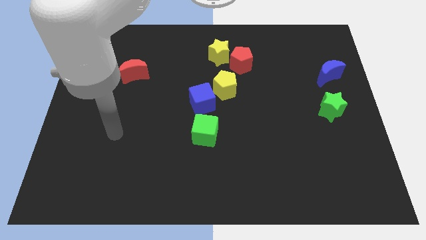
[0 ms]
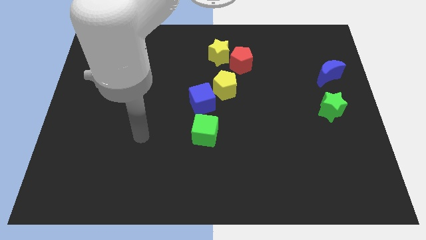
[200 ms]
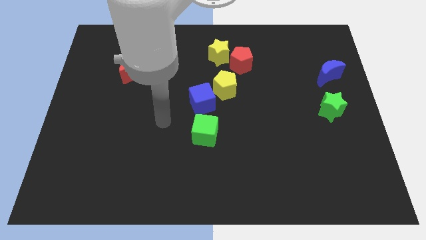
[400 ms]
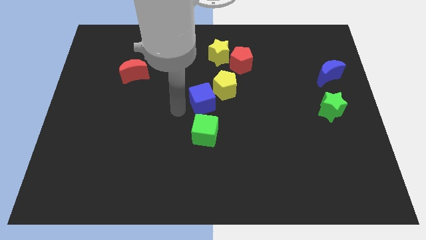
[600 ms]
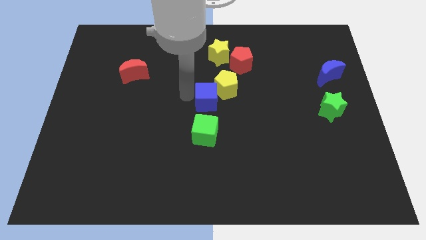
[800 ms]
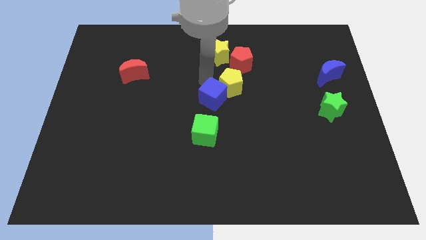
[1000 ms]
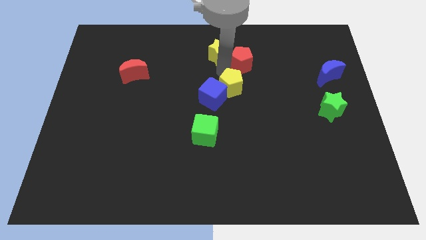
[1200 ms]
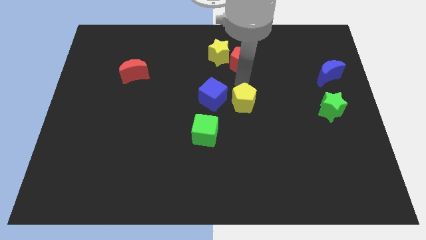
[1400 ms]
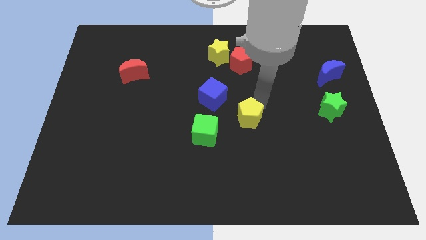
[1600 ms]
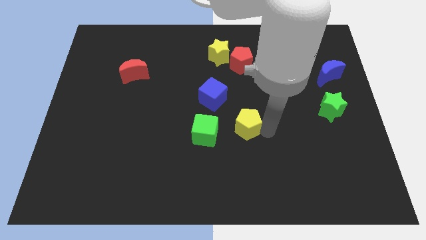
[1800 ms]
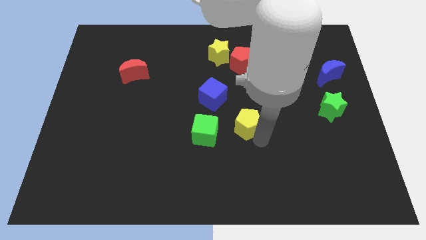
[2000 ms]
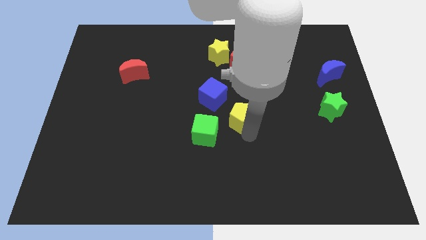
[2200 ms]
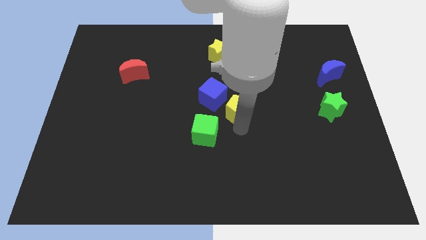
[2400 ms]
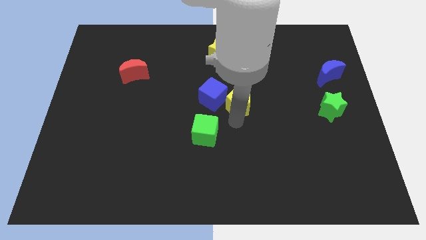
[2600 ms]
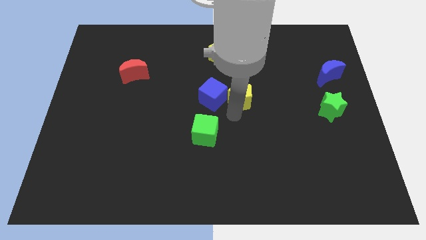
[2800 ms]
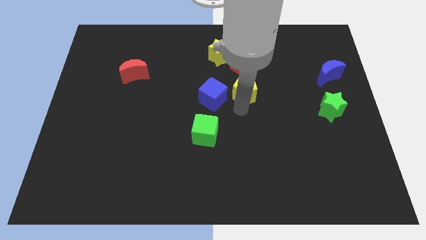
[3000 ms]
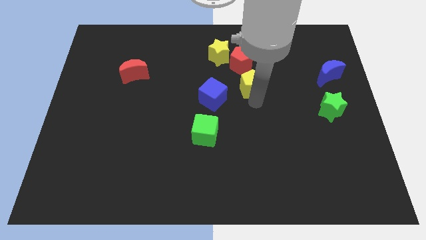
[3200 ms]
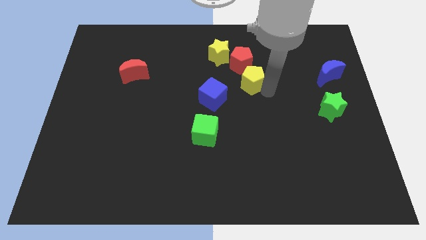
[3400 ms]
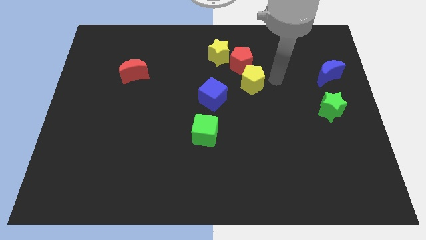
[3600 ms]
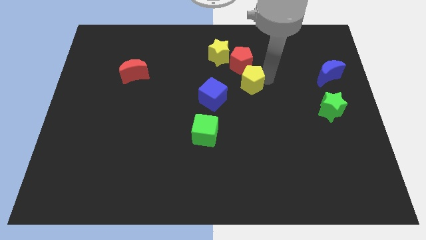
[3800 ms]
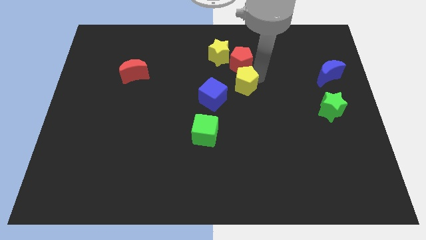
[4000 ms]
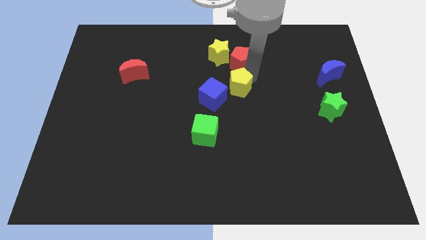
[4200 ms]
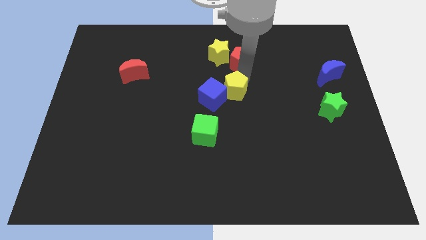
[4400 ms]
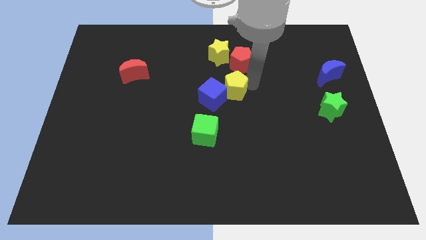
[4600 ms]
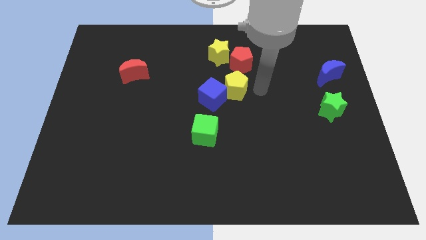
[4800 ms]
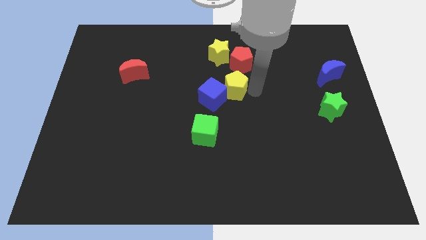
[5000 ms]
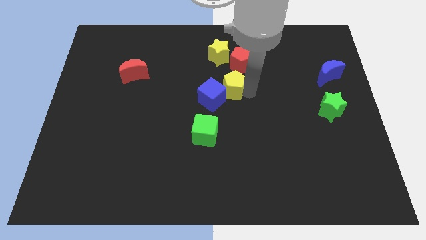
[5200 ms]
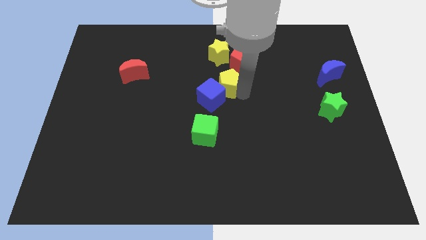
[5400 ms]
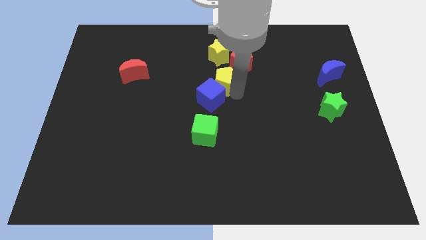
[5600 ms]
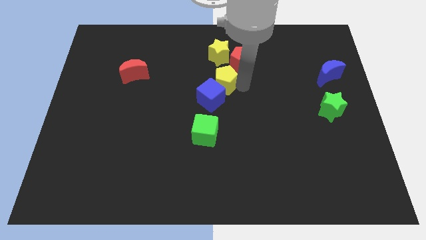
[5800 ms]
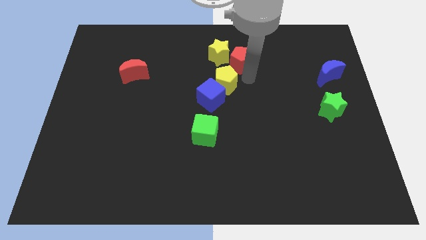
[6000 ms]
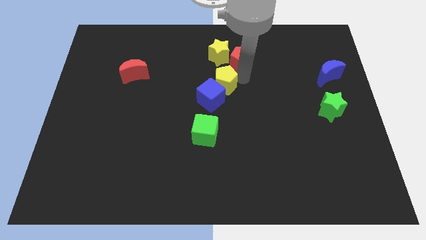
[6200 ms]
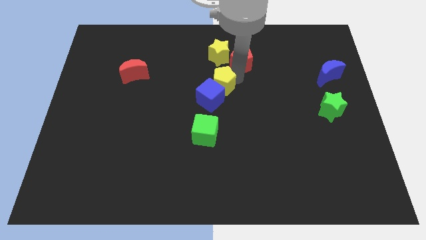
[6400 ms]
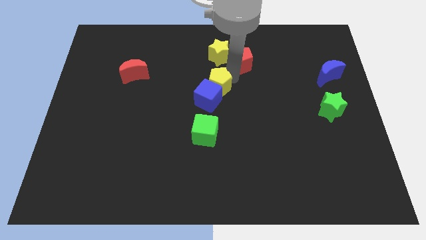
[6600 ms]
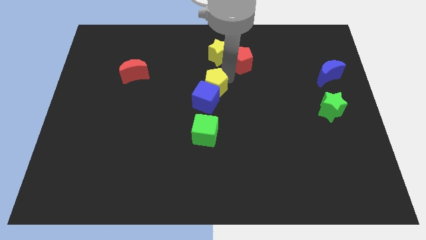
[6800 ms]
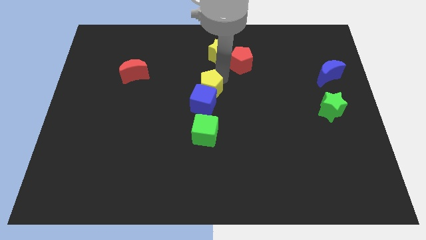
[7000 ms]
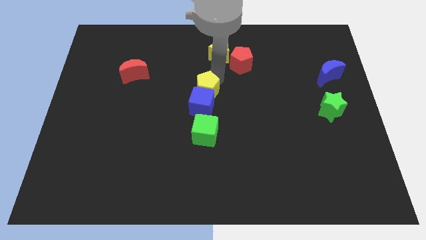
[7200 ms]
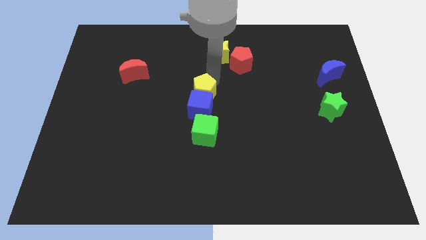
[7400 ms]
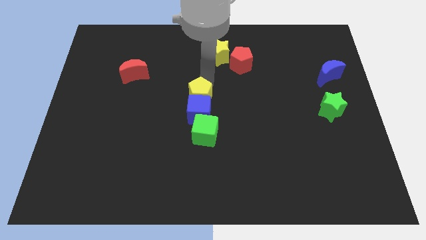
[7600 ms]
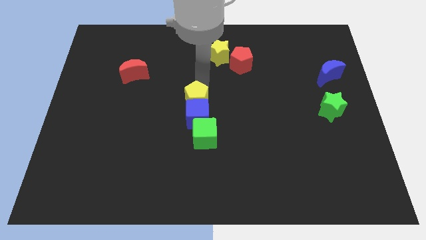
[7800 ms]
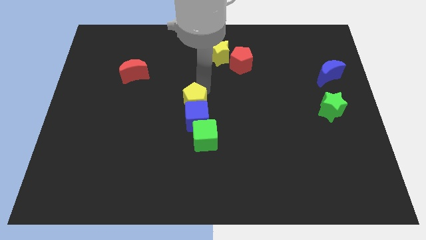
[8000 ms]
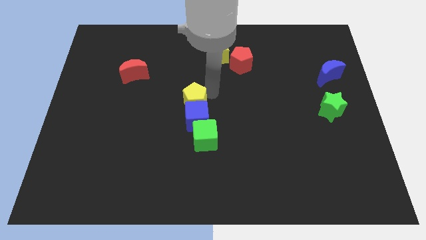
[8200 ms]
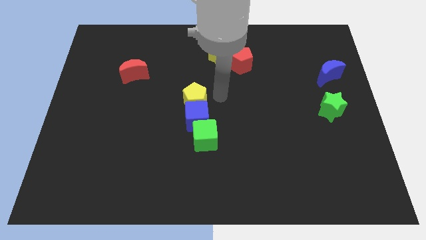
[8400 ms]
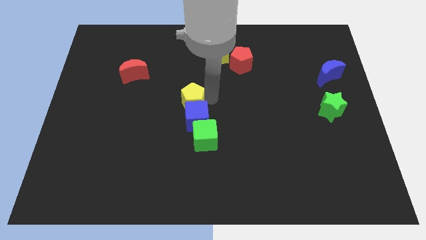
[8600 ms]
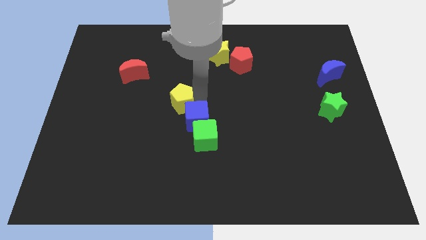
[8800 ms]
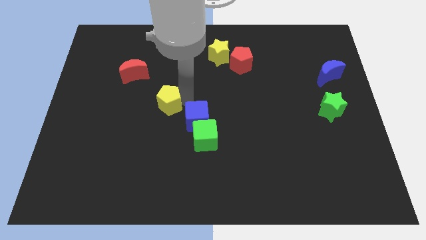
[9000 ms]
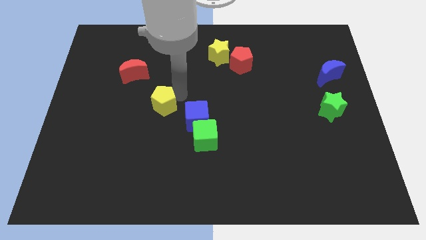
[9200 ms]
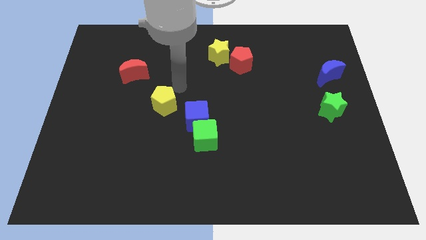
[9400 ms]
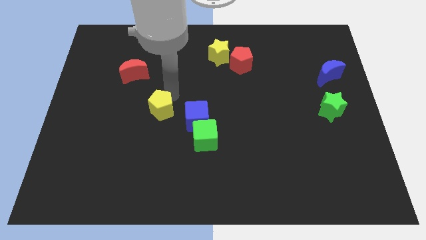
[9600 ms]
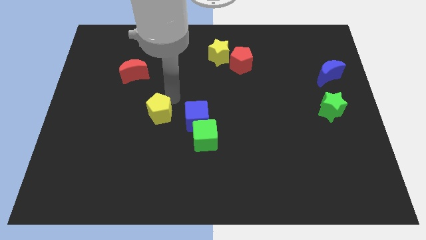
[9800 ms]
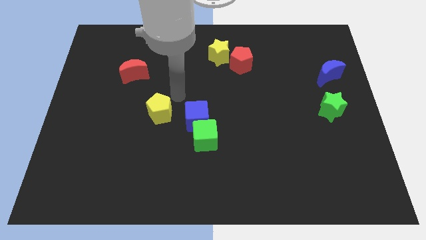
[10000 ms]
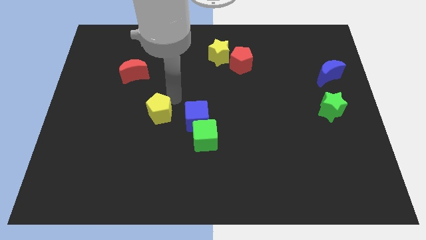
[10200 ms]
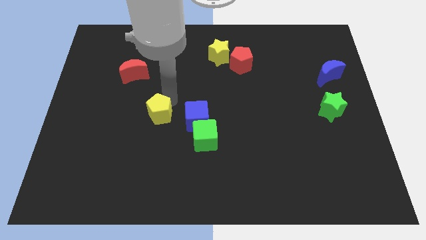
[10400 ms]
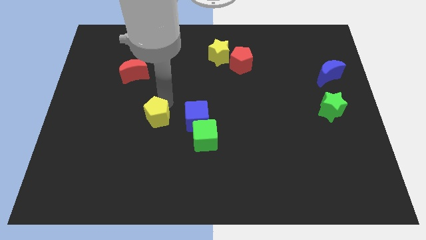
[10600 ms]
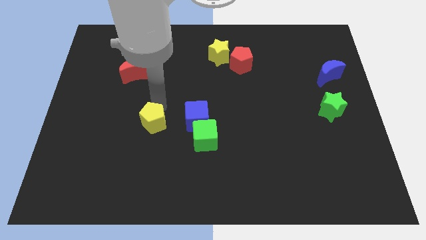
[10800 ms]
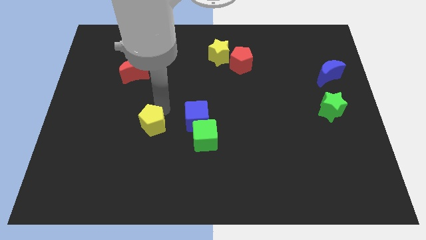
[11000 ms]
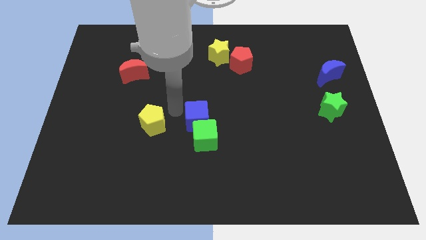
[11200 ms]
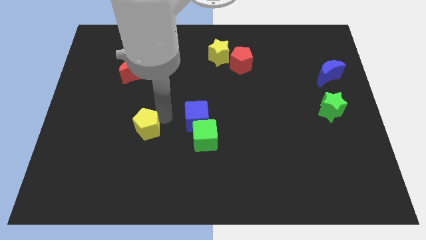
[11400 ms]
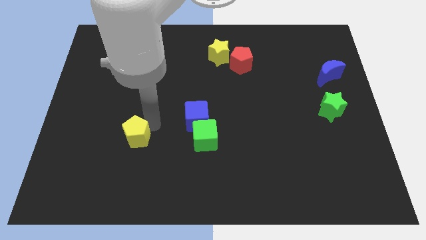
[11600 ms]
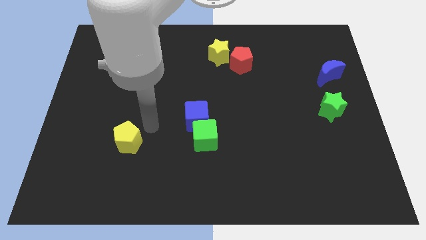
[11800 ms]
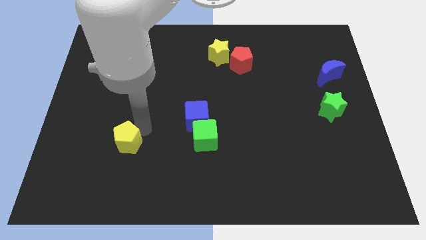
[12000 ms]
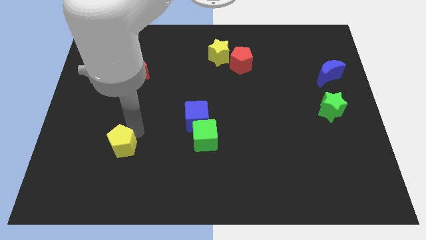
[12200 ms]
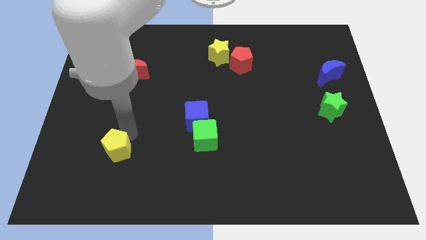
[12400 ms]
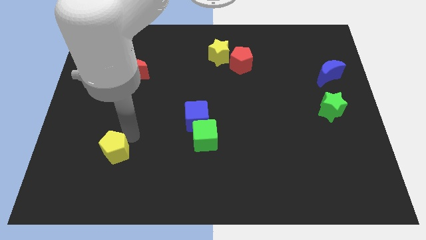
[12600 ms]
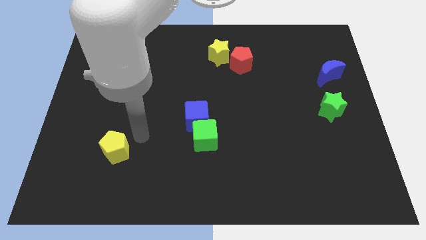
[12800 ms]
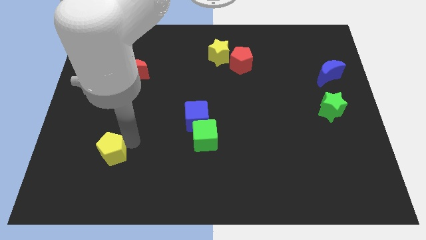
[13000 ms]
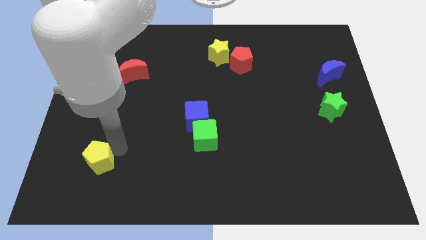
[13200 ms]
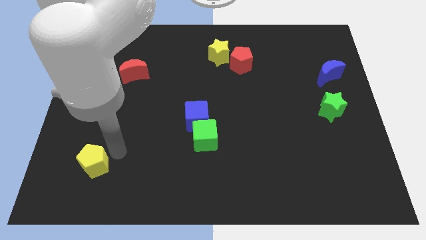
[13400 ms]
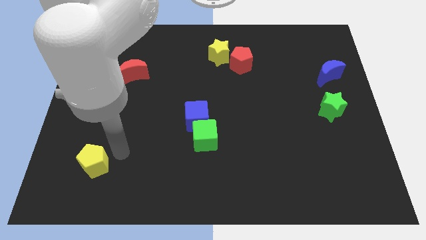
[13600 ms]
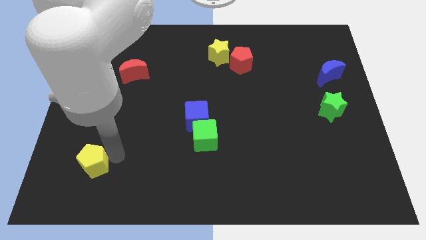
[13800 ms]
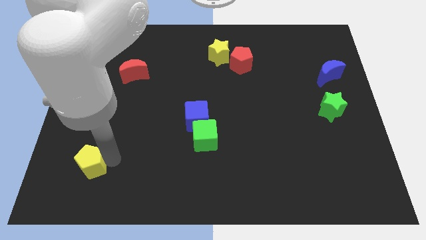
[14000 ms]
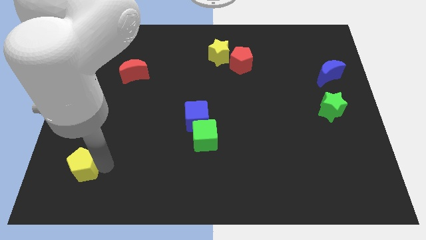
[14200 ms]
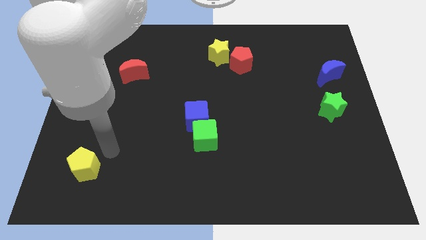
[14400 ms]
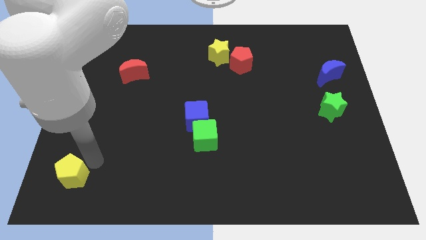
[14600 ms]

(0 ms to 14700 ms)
put the yellow pentagon to the bottom left of the board
